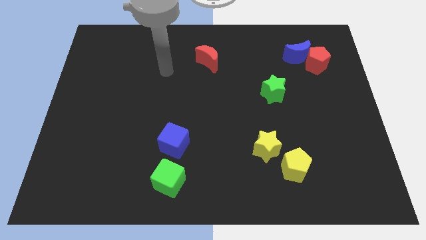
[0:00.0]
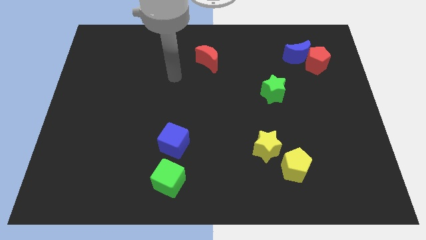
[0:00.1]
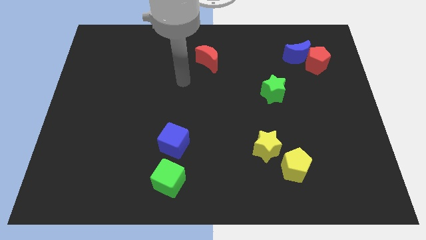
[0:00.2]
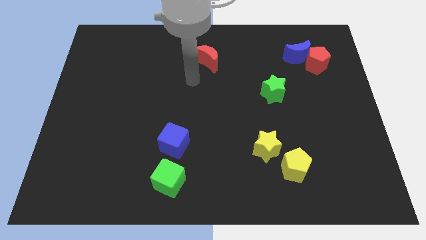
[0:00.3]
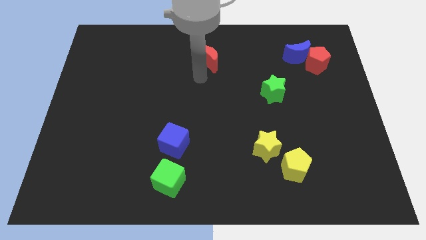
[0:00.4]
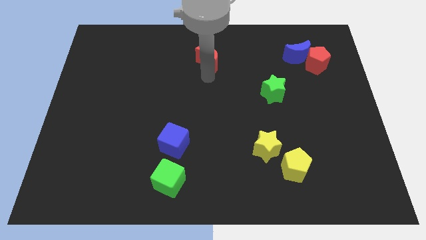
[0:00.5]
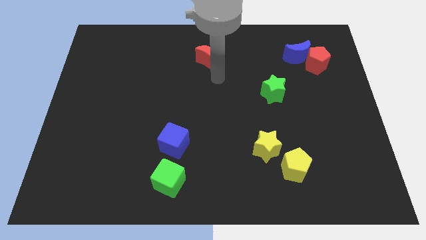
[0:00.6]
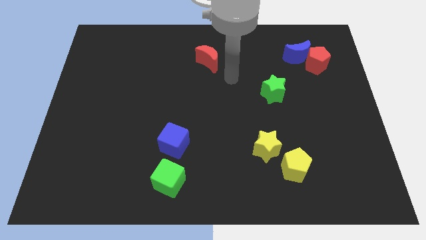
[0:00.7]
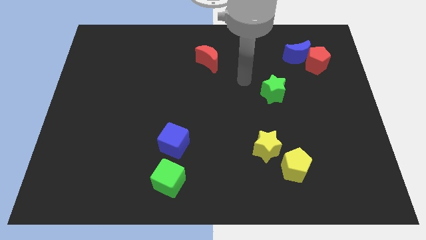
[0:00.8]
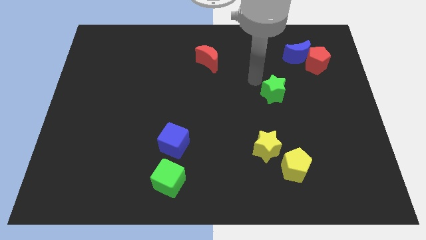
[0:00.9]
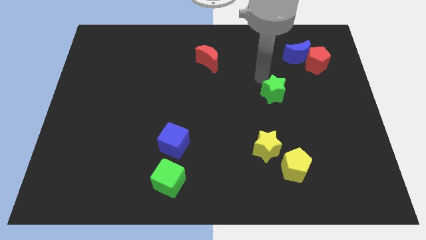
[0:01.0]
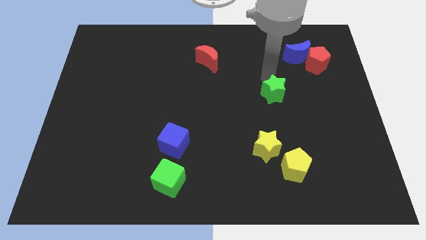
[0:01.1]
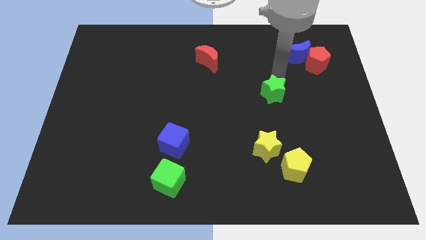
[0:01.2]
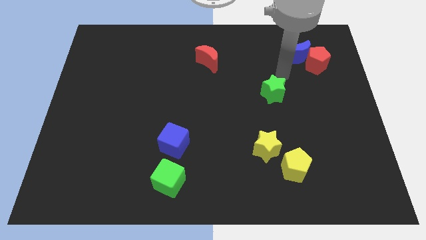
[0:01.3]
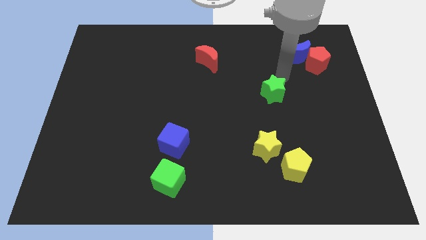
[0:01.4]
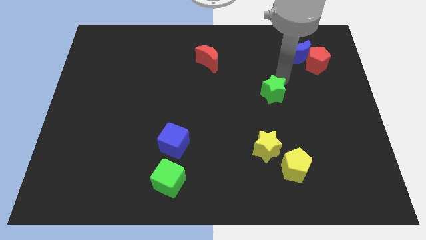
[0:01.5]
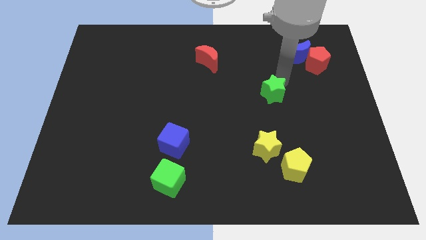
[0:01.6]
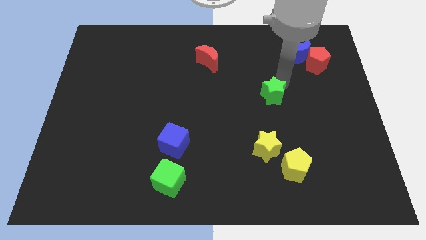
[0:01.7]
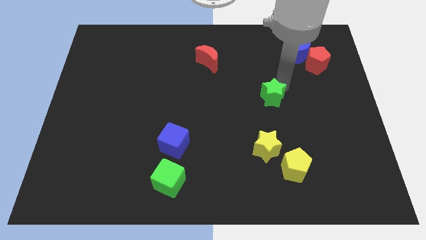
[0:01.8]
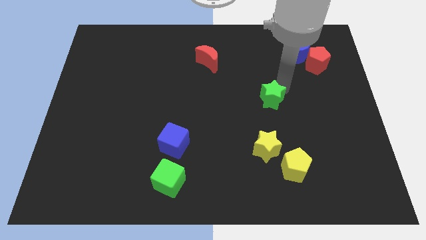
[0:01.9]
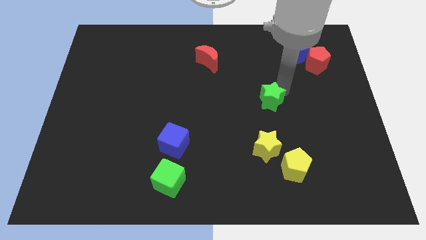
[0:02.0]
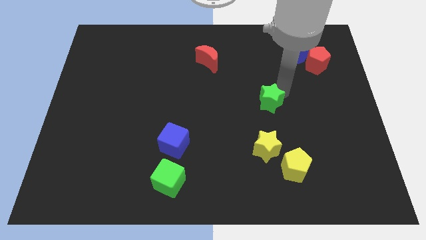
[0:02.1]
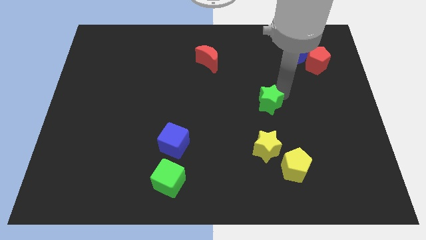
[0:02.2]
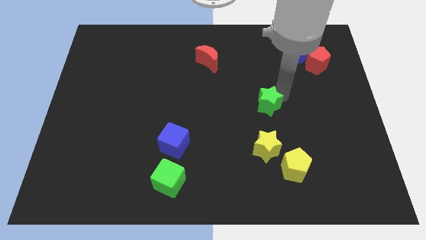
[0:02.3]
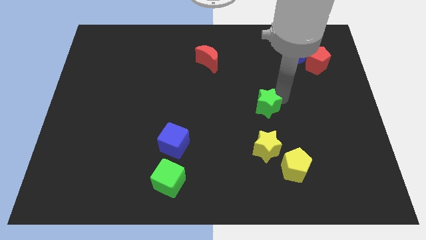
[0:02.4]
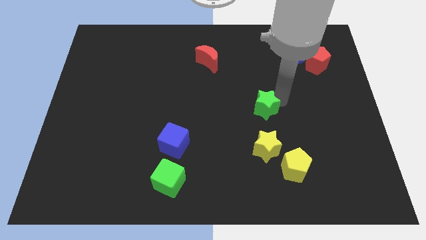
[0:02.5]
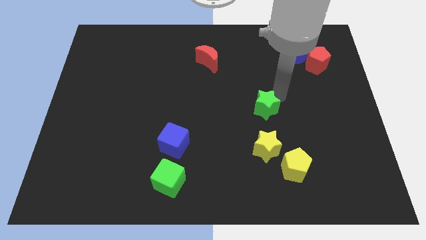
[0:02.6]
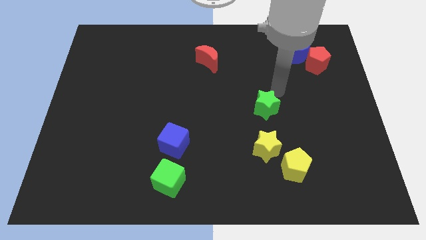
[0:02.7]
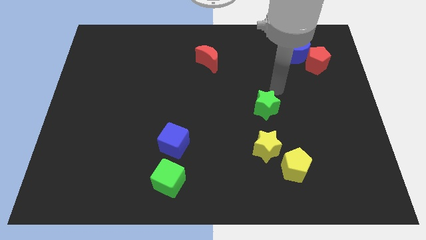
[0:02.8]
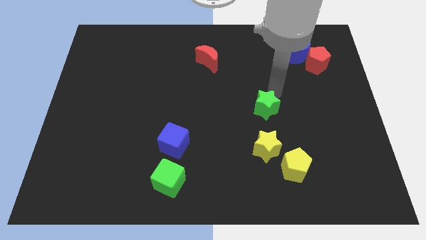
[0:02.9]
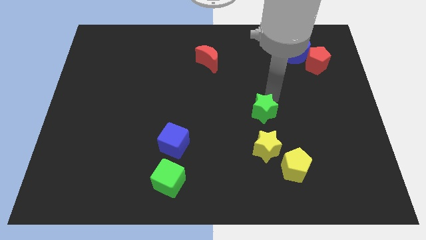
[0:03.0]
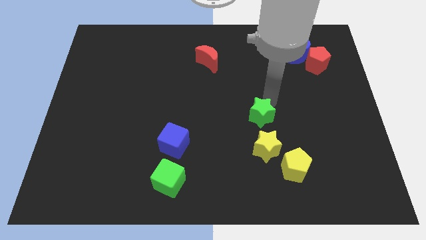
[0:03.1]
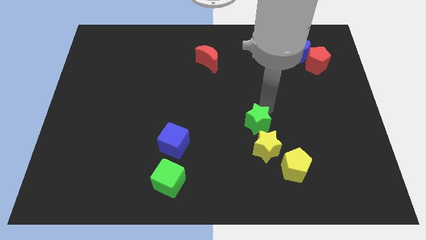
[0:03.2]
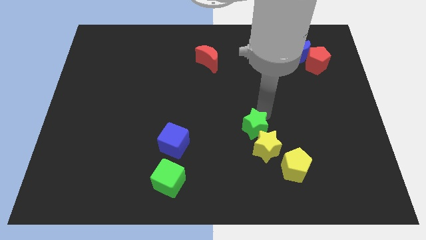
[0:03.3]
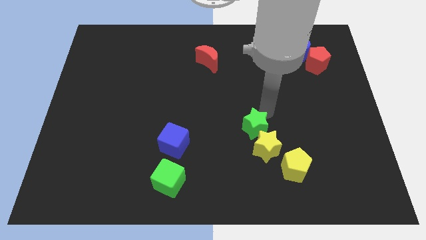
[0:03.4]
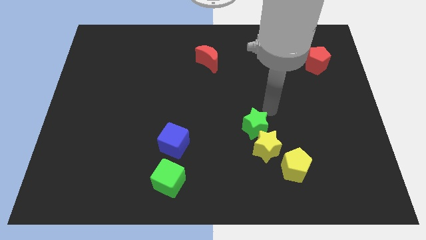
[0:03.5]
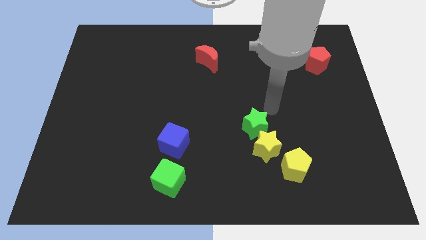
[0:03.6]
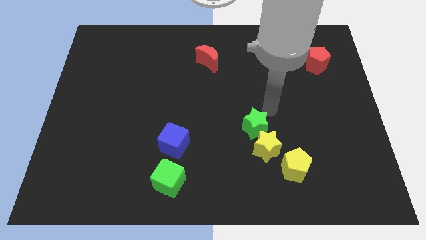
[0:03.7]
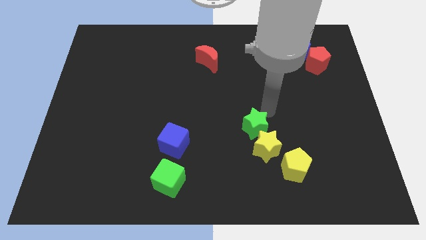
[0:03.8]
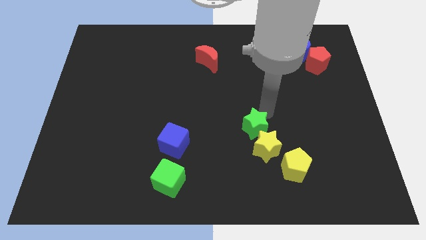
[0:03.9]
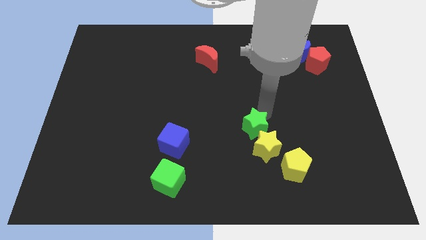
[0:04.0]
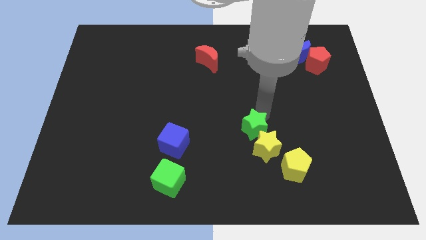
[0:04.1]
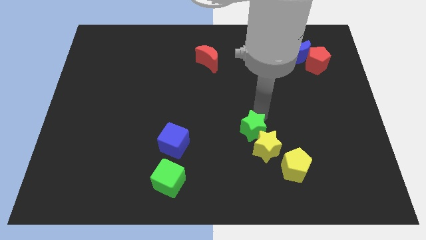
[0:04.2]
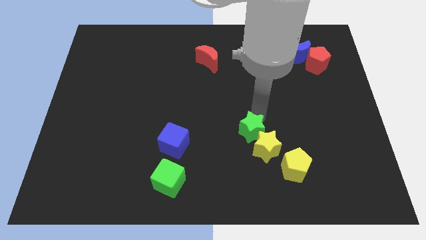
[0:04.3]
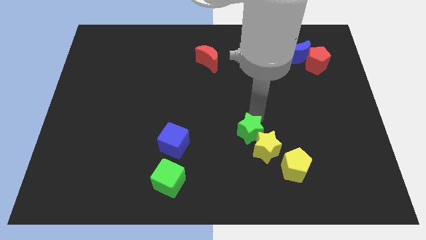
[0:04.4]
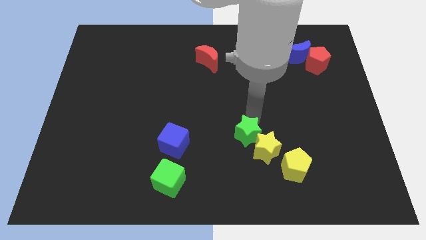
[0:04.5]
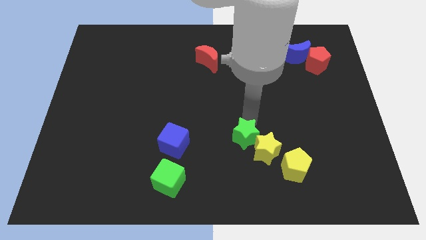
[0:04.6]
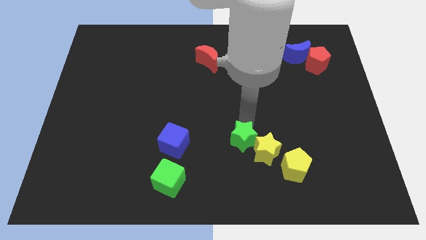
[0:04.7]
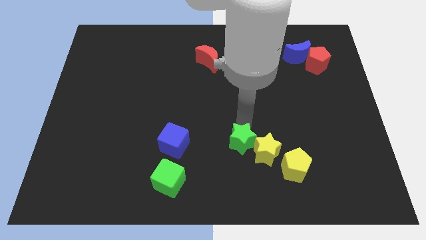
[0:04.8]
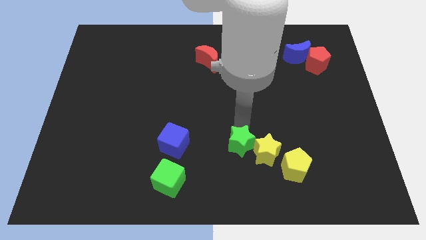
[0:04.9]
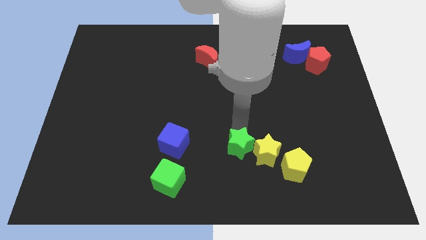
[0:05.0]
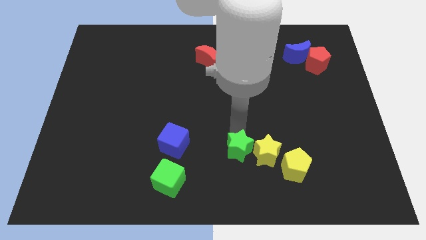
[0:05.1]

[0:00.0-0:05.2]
move the green star just left of the yellow pentagon
